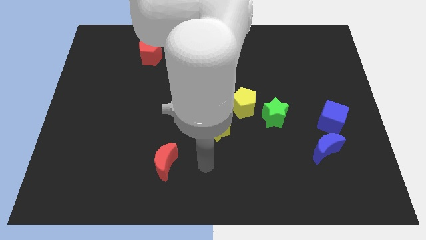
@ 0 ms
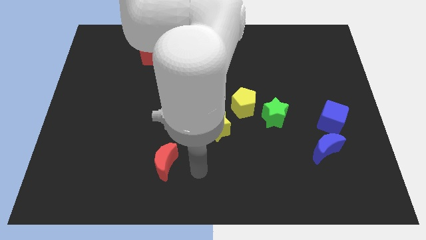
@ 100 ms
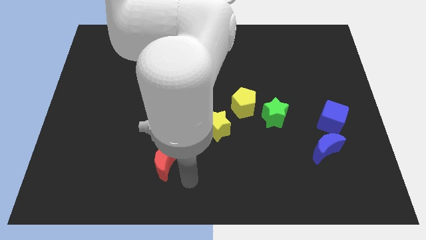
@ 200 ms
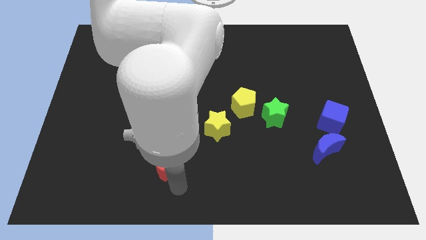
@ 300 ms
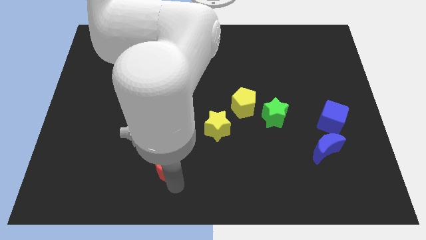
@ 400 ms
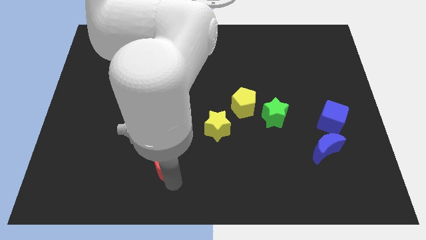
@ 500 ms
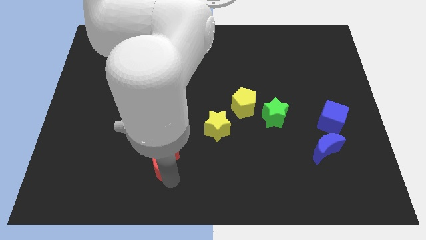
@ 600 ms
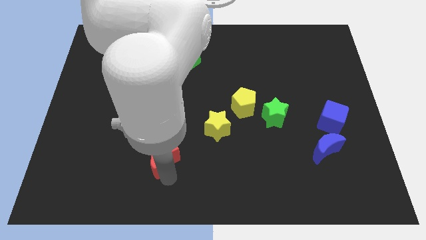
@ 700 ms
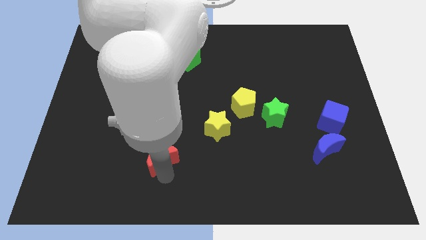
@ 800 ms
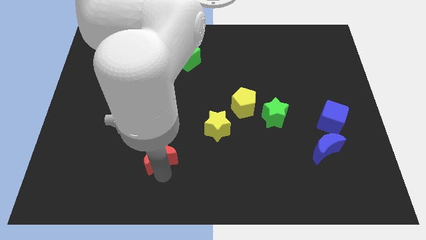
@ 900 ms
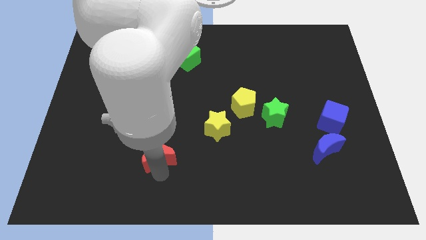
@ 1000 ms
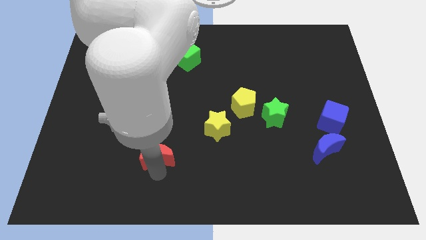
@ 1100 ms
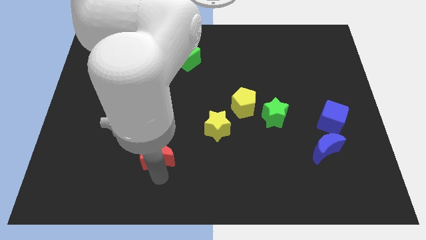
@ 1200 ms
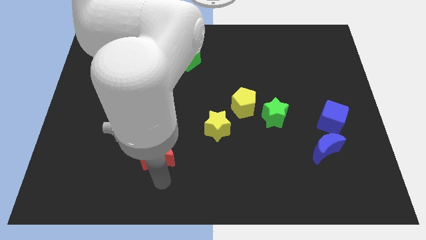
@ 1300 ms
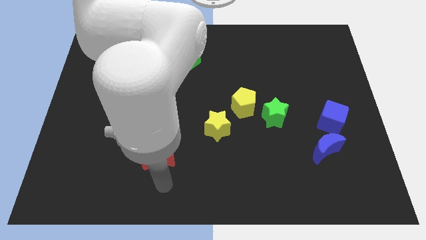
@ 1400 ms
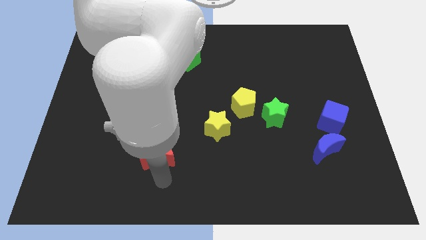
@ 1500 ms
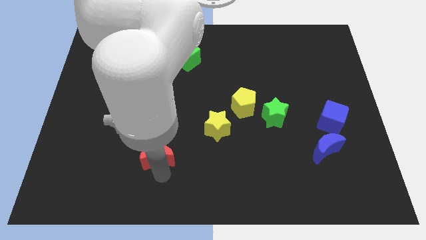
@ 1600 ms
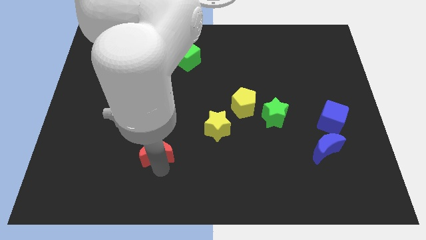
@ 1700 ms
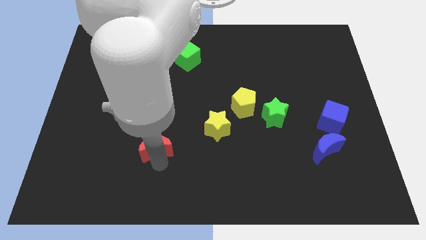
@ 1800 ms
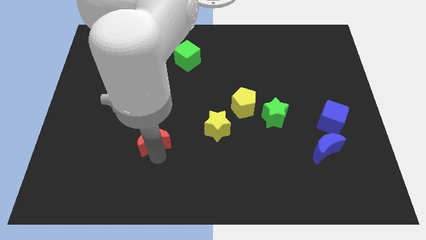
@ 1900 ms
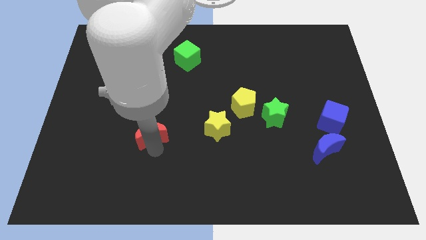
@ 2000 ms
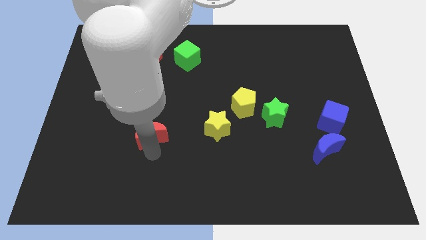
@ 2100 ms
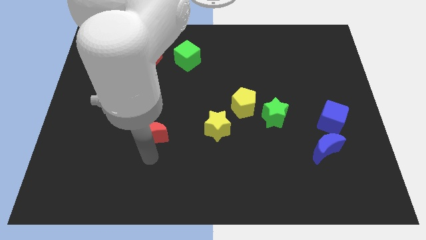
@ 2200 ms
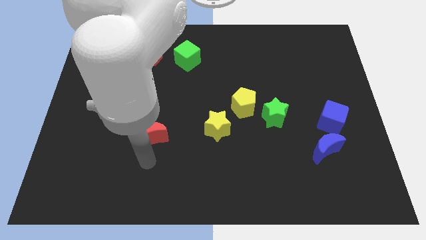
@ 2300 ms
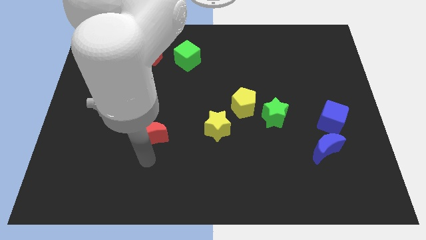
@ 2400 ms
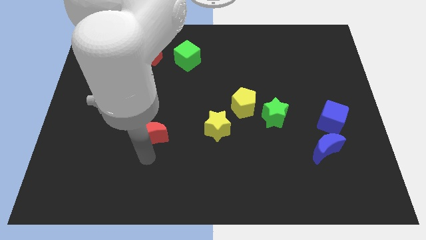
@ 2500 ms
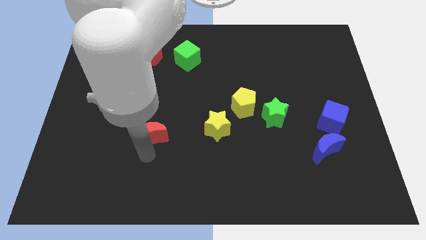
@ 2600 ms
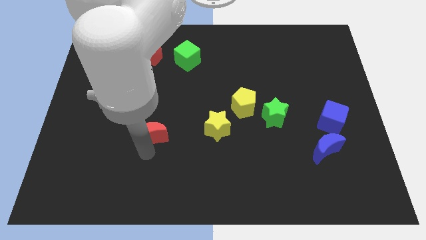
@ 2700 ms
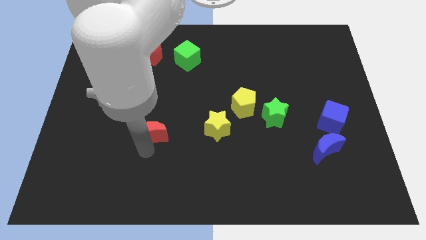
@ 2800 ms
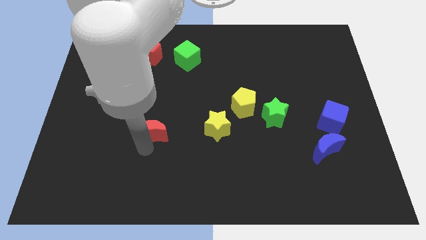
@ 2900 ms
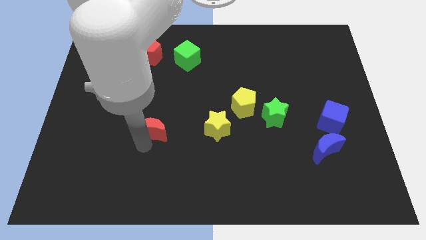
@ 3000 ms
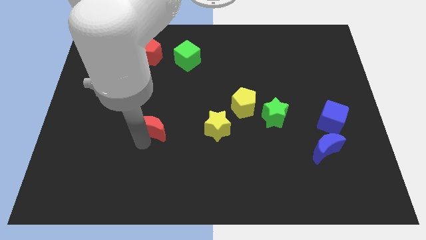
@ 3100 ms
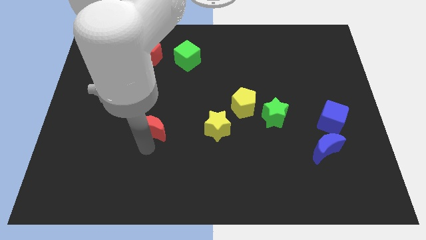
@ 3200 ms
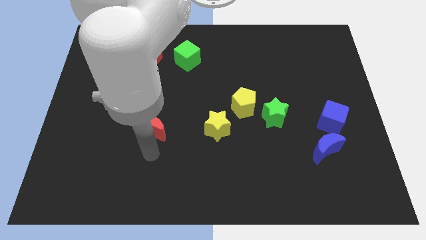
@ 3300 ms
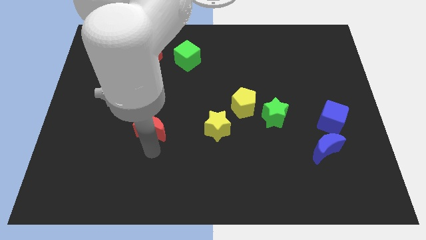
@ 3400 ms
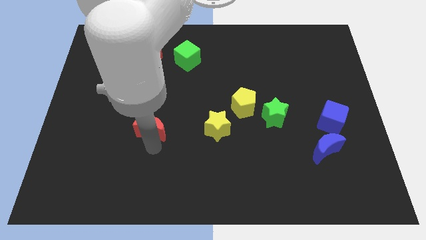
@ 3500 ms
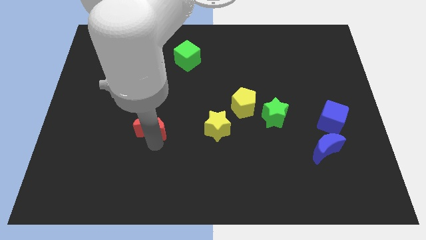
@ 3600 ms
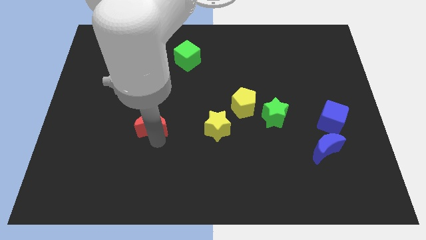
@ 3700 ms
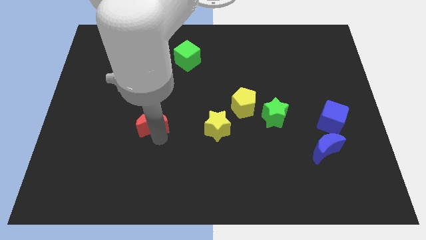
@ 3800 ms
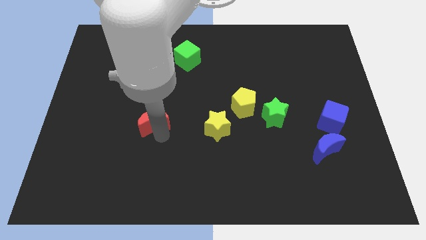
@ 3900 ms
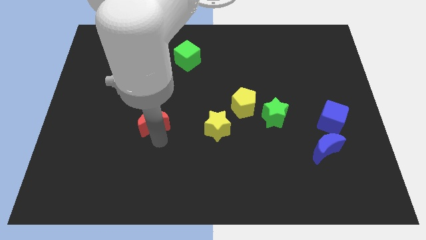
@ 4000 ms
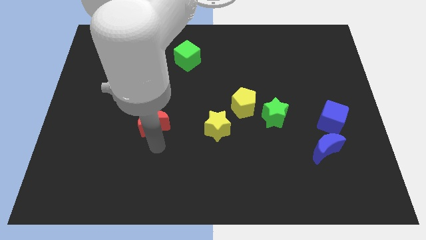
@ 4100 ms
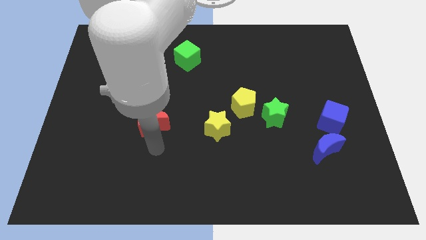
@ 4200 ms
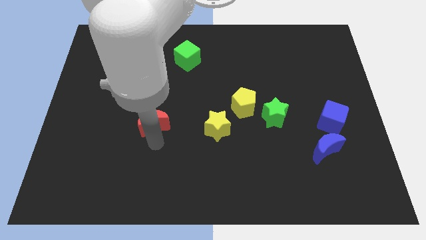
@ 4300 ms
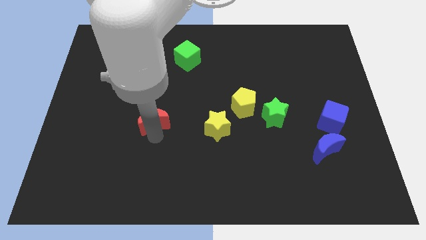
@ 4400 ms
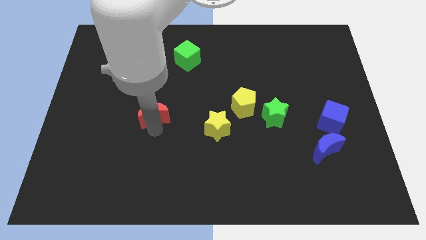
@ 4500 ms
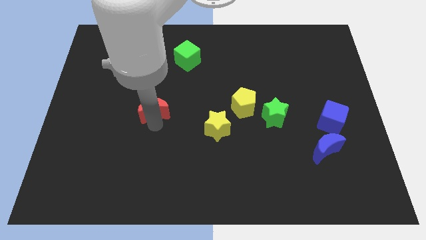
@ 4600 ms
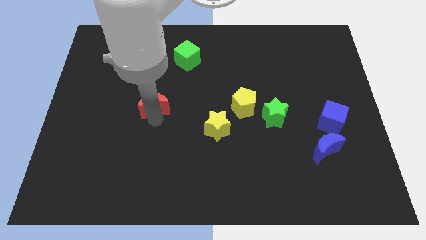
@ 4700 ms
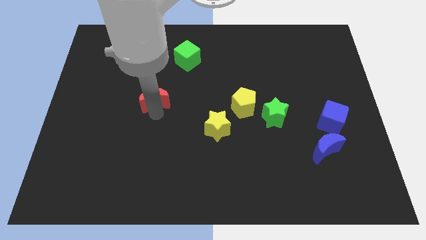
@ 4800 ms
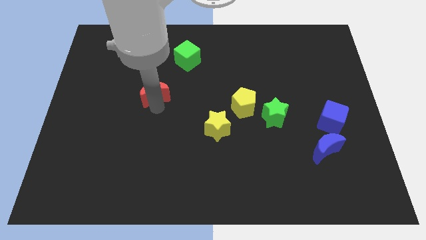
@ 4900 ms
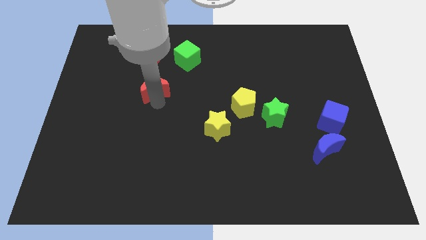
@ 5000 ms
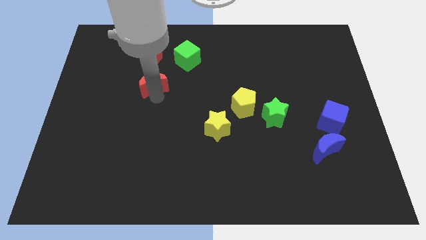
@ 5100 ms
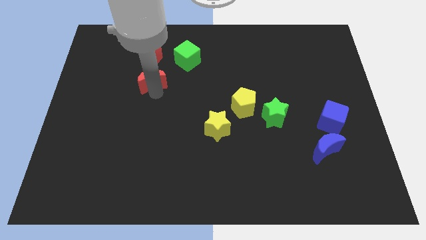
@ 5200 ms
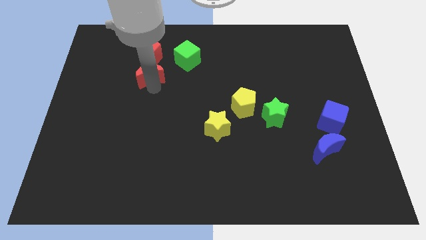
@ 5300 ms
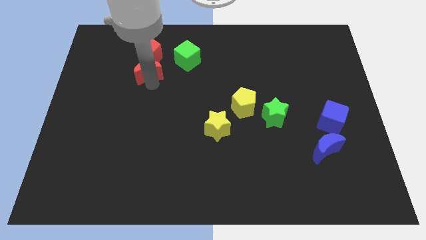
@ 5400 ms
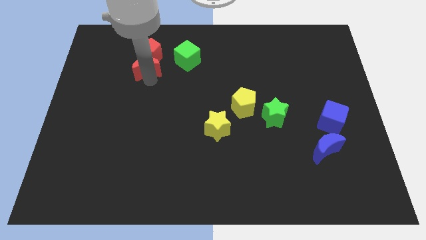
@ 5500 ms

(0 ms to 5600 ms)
put the red moon towards the red pentagon
